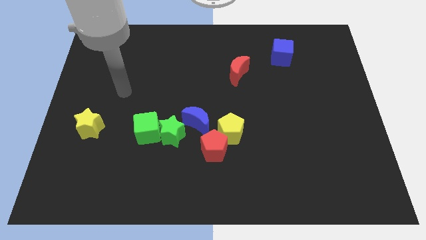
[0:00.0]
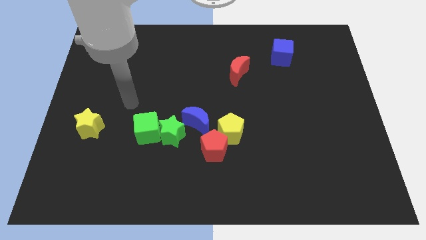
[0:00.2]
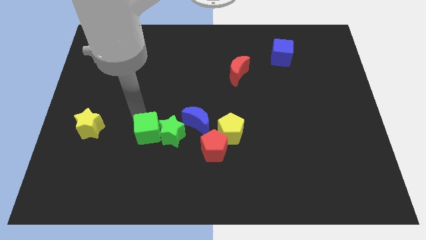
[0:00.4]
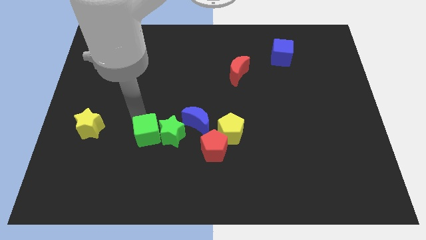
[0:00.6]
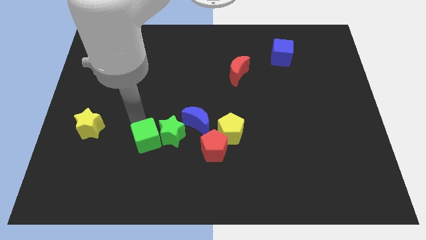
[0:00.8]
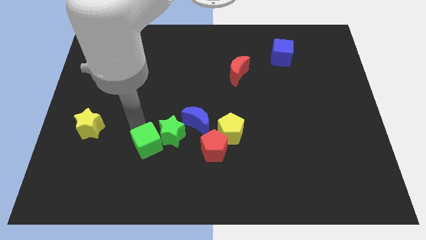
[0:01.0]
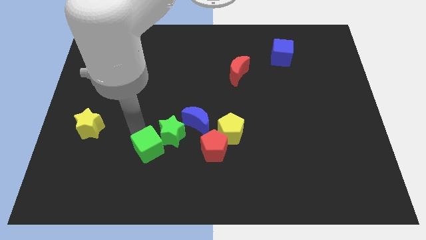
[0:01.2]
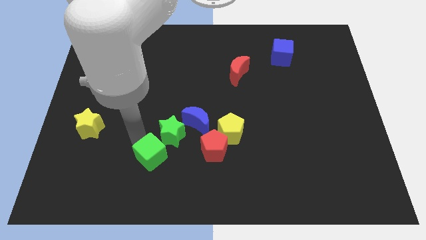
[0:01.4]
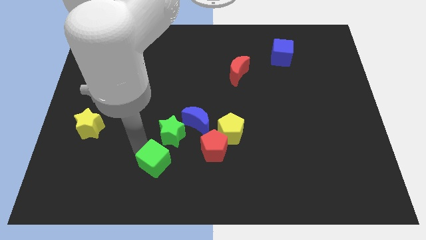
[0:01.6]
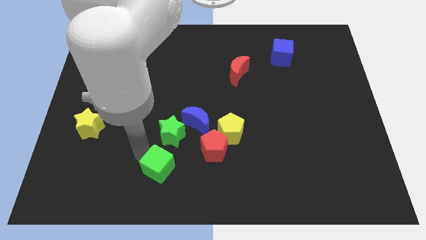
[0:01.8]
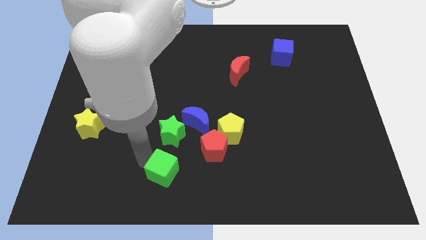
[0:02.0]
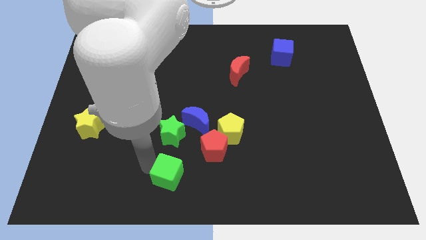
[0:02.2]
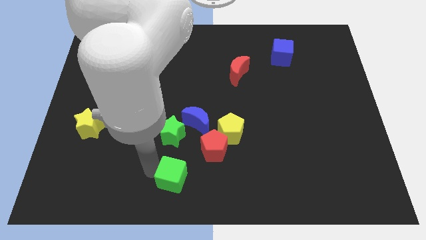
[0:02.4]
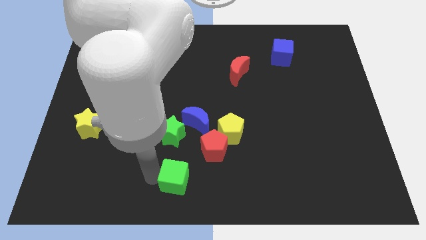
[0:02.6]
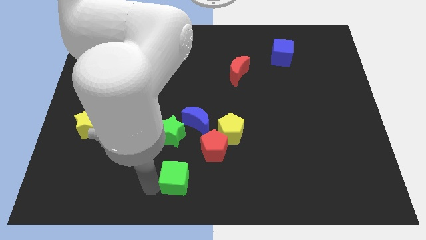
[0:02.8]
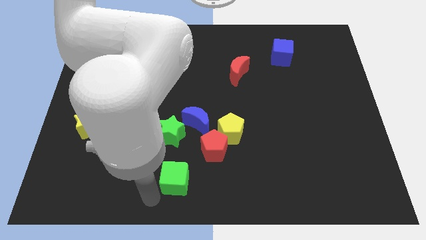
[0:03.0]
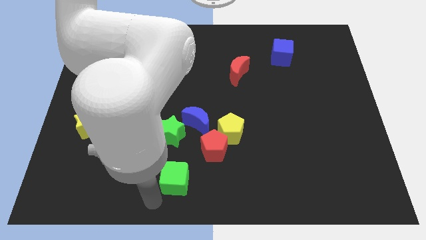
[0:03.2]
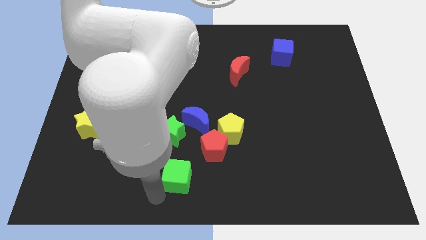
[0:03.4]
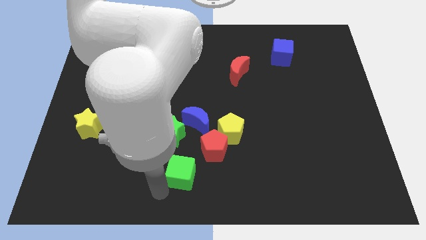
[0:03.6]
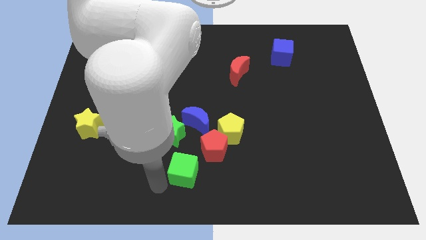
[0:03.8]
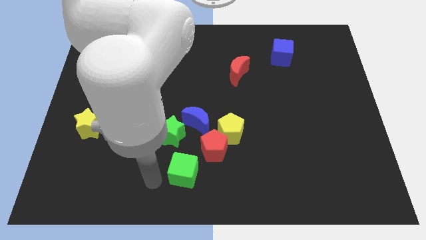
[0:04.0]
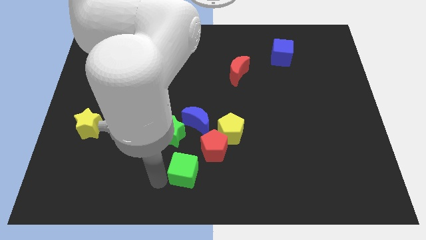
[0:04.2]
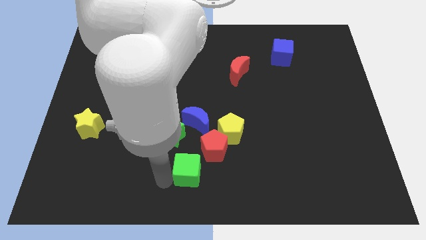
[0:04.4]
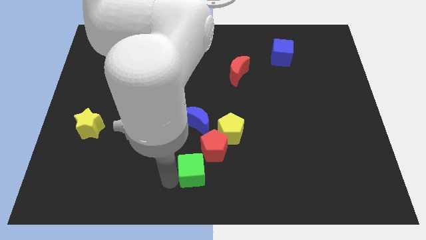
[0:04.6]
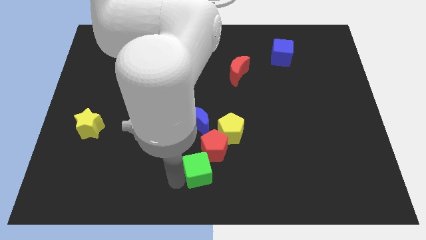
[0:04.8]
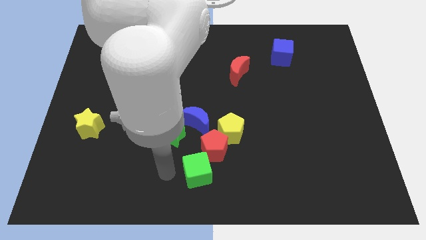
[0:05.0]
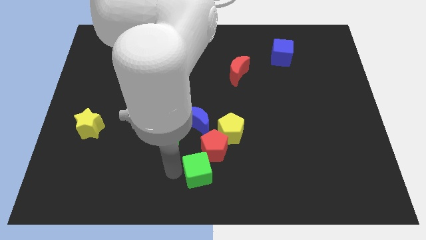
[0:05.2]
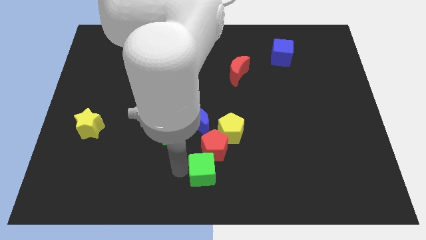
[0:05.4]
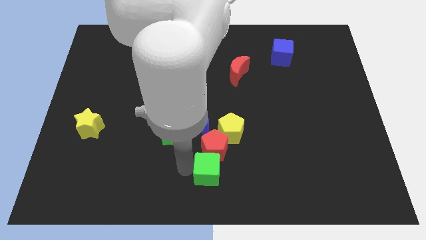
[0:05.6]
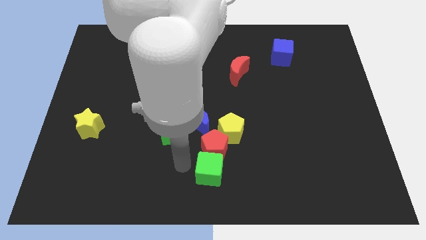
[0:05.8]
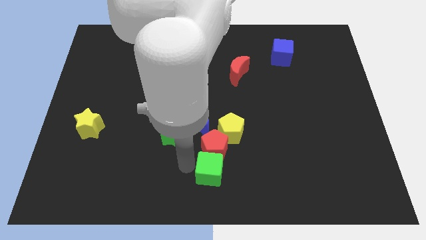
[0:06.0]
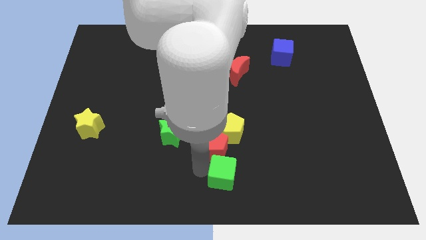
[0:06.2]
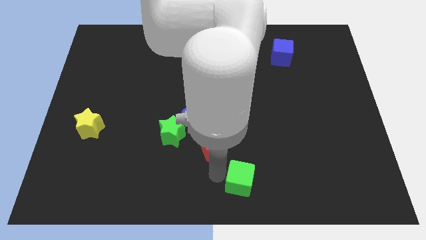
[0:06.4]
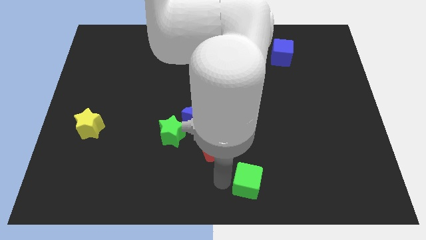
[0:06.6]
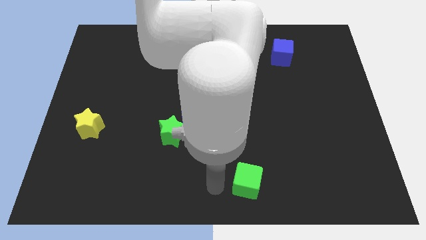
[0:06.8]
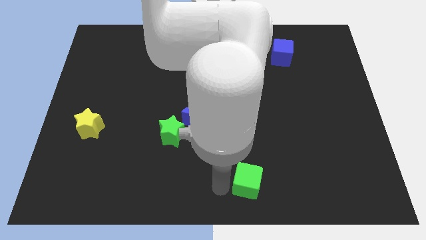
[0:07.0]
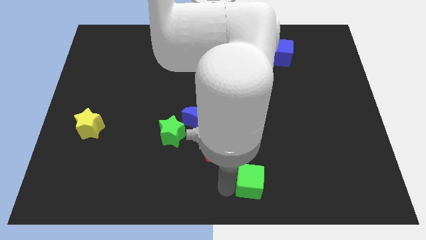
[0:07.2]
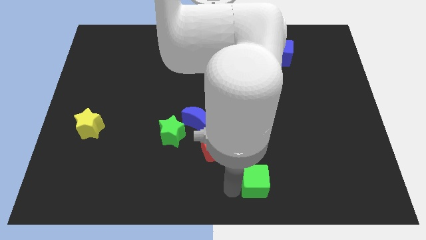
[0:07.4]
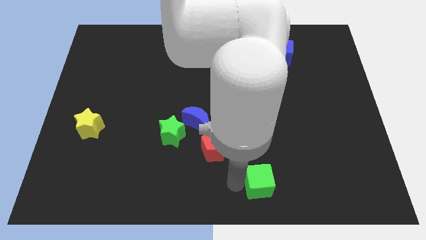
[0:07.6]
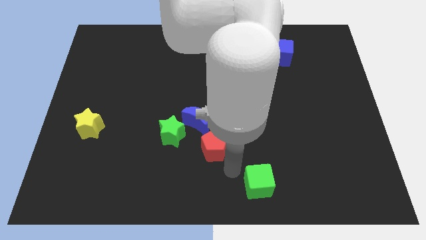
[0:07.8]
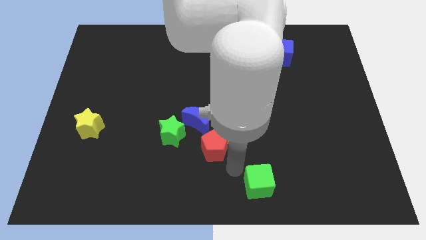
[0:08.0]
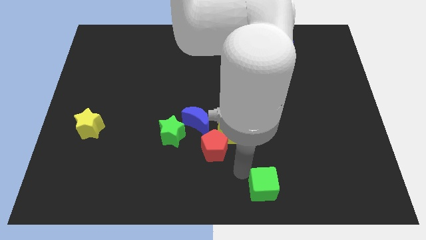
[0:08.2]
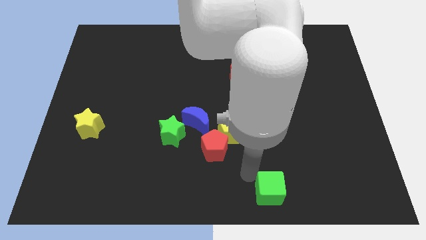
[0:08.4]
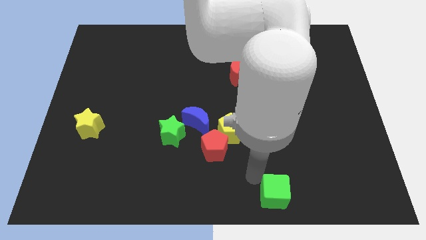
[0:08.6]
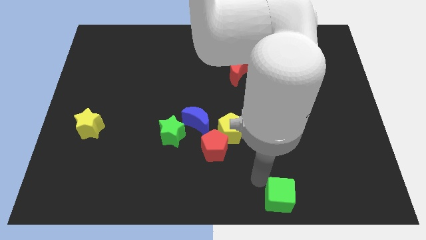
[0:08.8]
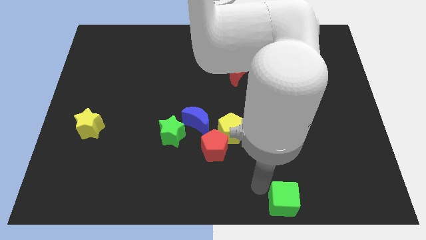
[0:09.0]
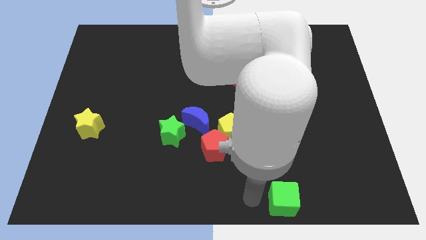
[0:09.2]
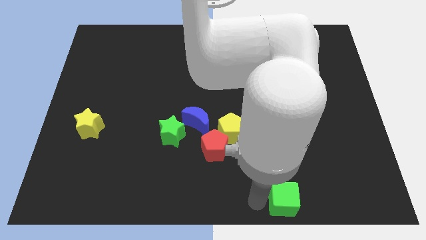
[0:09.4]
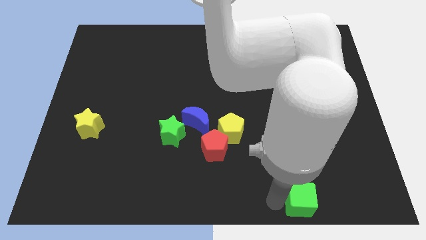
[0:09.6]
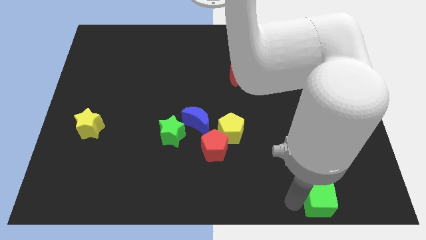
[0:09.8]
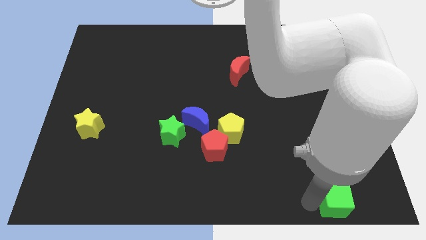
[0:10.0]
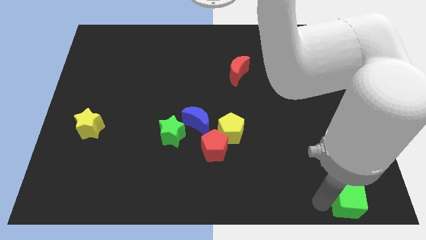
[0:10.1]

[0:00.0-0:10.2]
push the green cube to the bottom right
